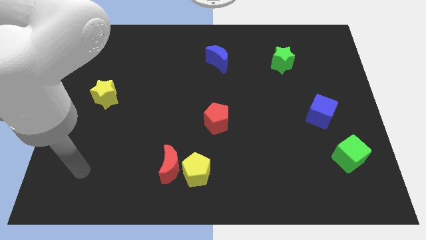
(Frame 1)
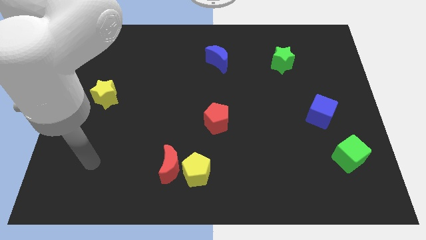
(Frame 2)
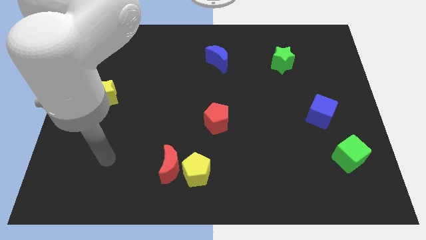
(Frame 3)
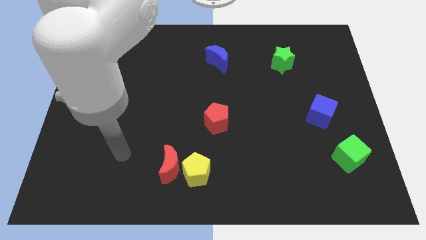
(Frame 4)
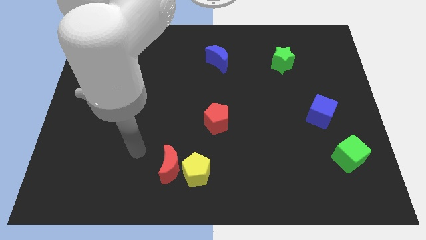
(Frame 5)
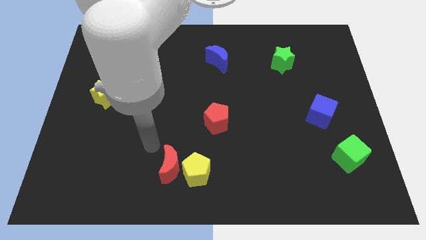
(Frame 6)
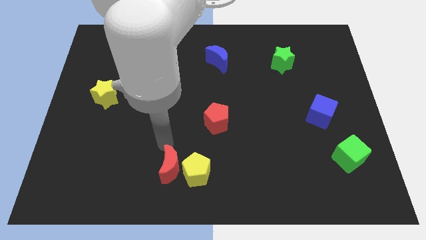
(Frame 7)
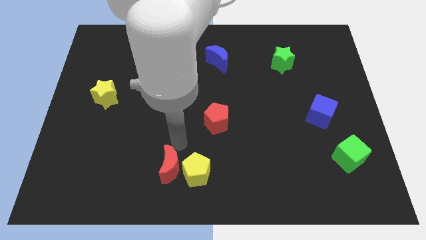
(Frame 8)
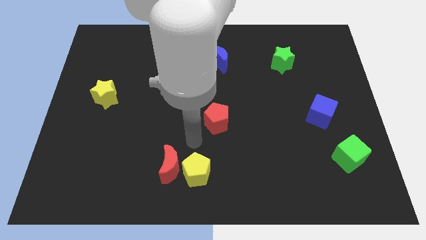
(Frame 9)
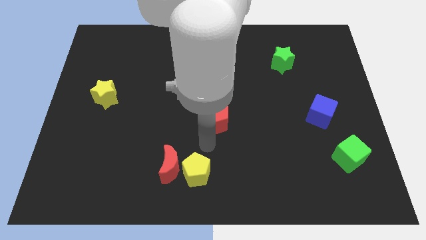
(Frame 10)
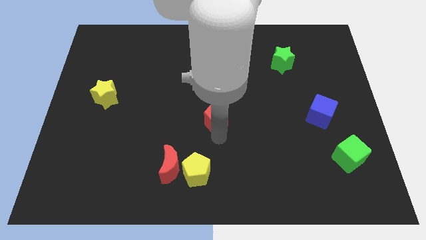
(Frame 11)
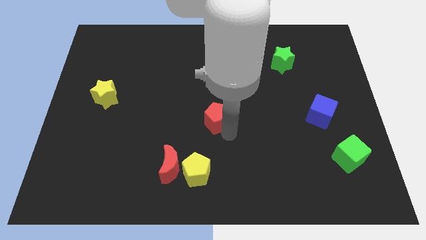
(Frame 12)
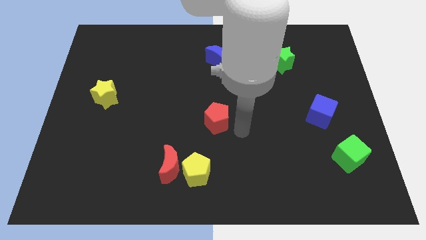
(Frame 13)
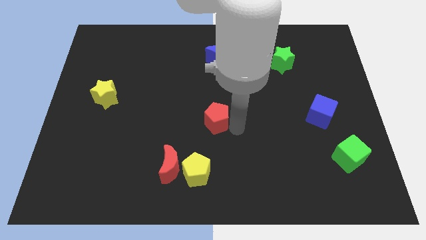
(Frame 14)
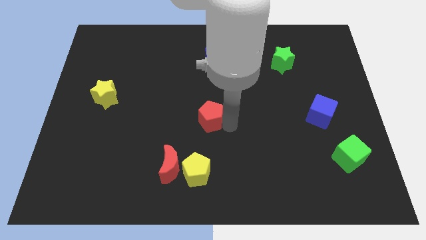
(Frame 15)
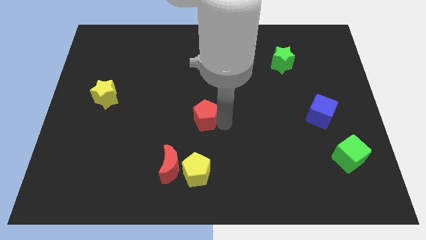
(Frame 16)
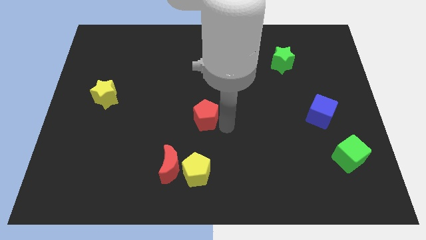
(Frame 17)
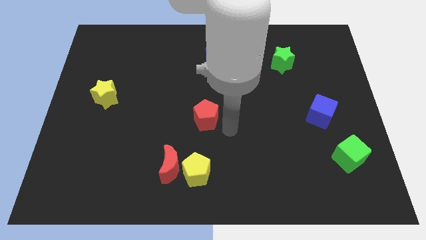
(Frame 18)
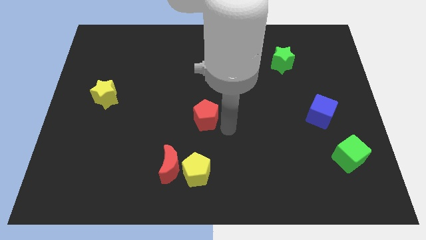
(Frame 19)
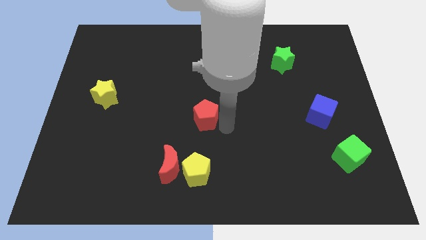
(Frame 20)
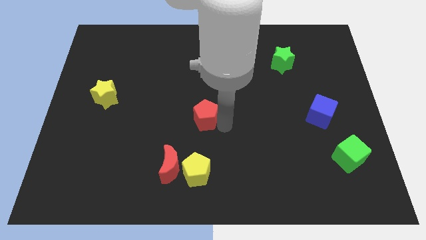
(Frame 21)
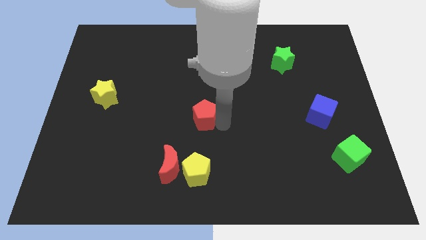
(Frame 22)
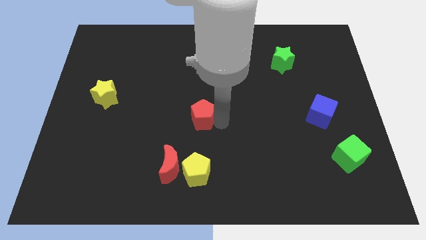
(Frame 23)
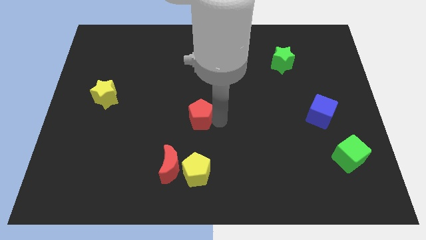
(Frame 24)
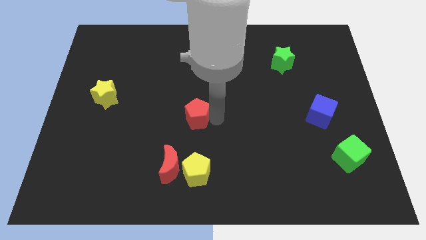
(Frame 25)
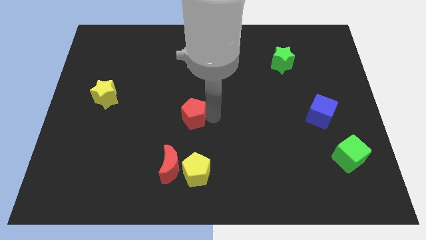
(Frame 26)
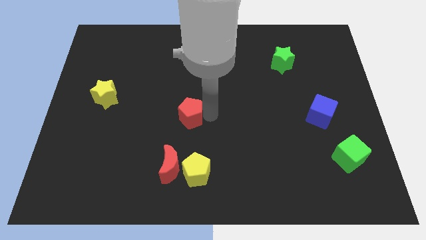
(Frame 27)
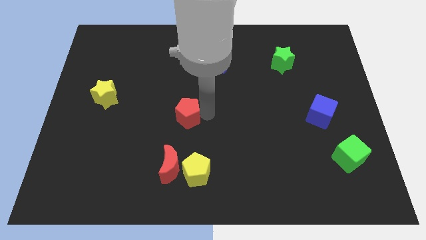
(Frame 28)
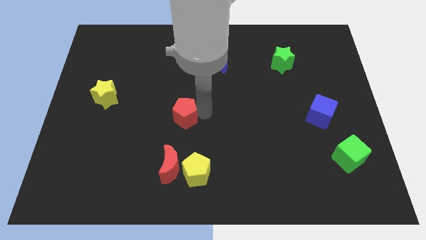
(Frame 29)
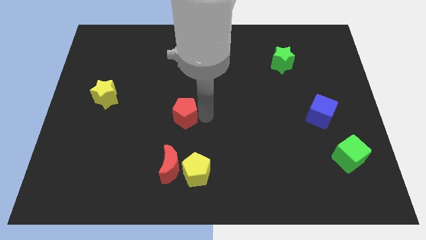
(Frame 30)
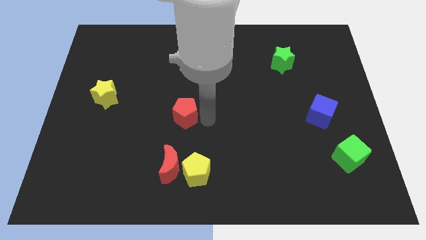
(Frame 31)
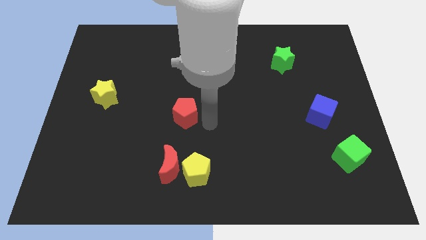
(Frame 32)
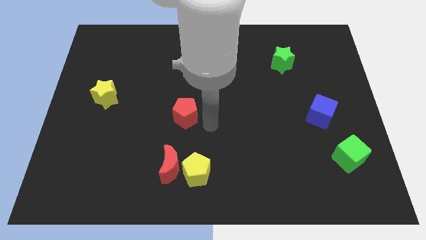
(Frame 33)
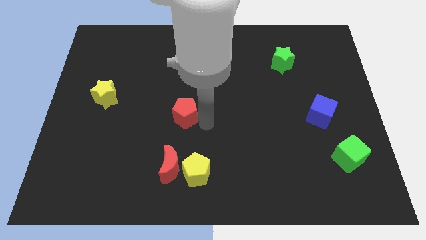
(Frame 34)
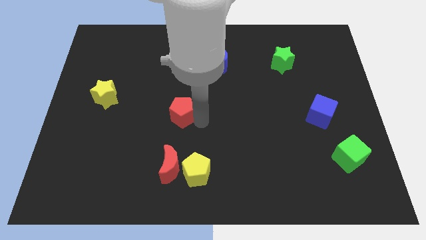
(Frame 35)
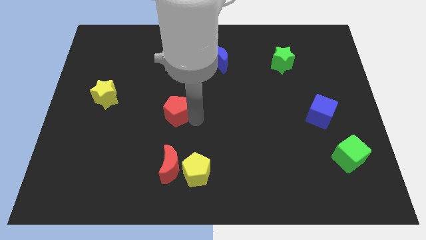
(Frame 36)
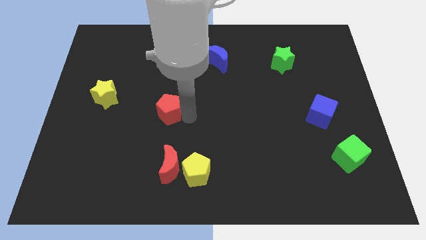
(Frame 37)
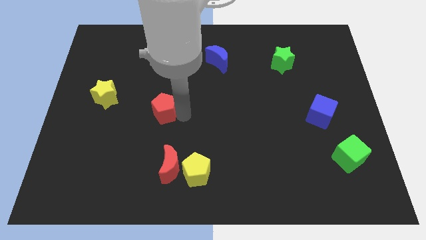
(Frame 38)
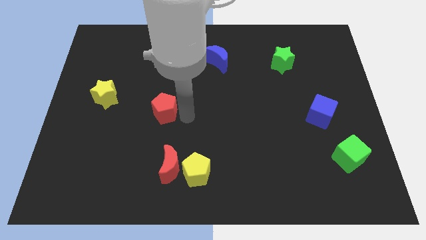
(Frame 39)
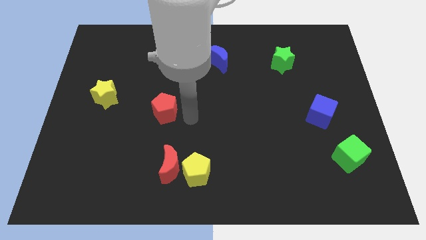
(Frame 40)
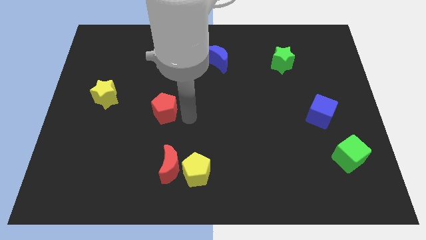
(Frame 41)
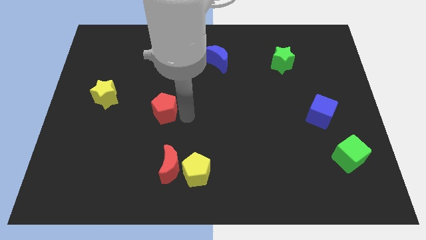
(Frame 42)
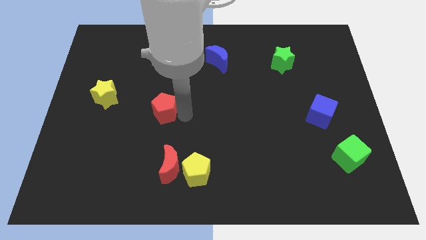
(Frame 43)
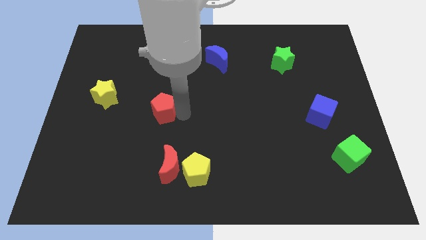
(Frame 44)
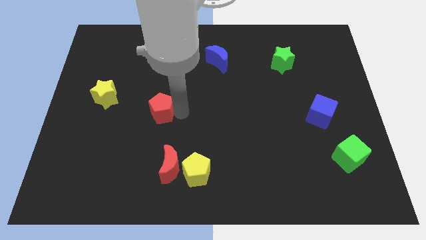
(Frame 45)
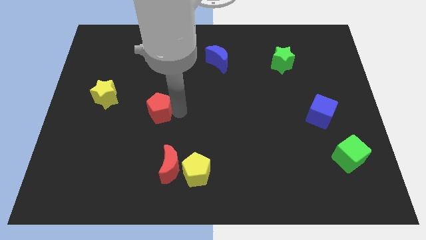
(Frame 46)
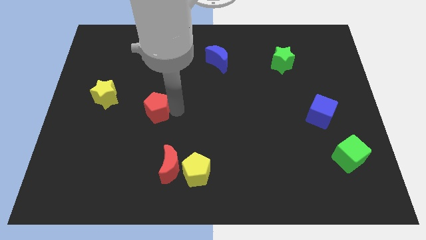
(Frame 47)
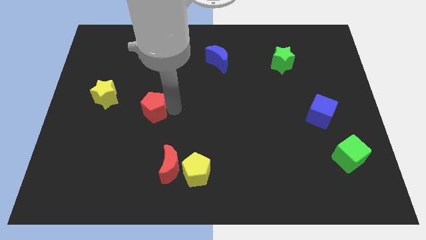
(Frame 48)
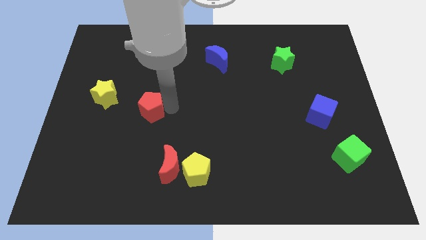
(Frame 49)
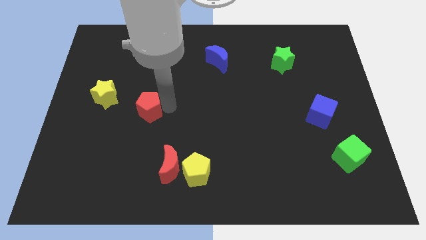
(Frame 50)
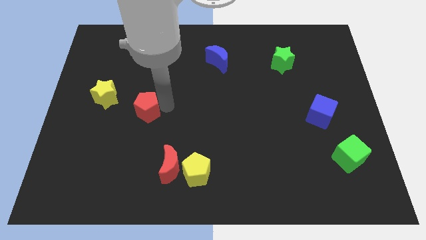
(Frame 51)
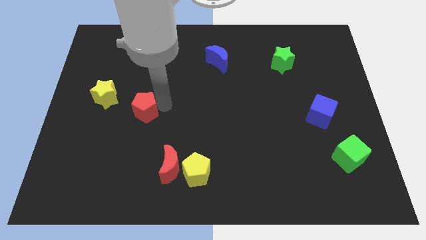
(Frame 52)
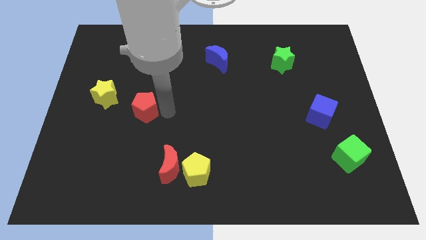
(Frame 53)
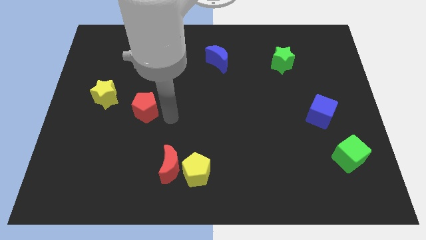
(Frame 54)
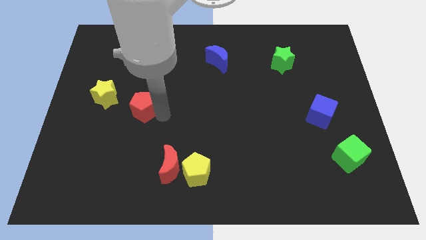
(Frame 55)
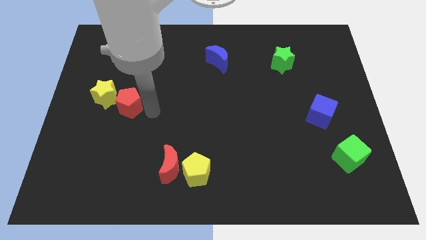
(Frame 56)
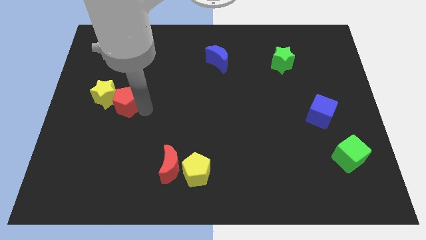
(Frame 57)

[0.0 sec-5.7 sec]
slide the red pentagon close to the yellow star

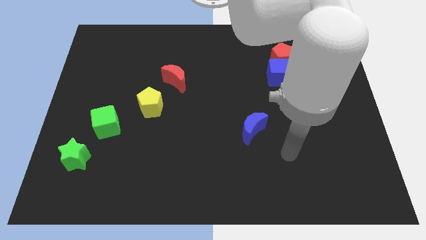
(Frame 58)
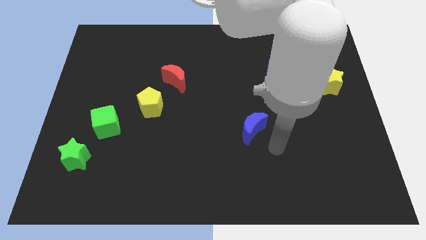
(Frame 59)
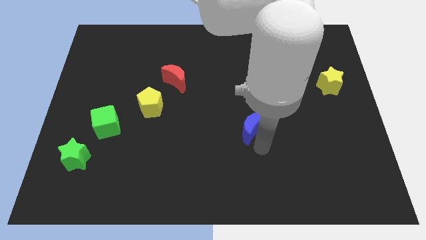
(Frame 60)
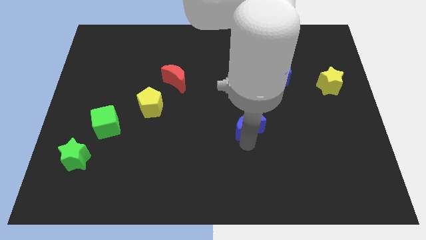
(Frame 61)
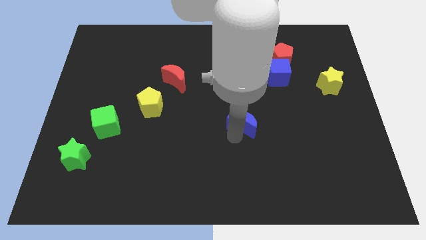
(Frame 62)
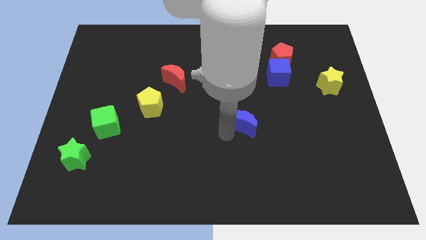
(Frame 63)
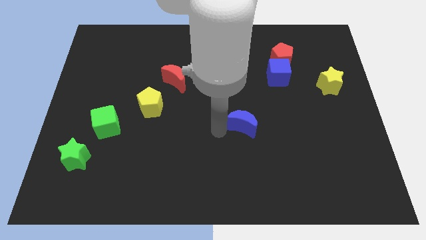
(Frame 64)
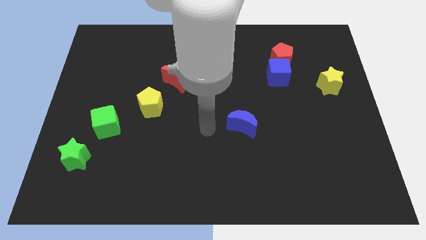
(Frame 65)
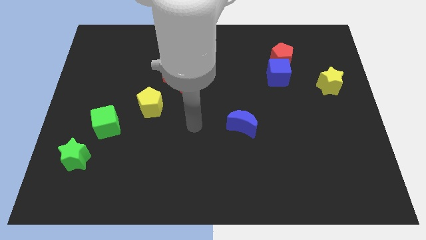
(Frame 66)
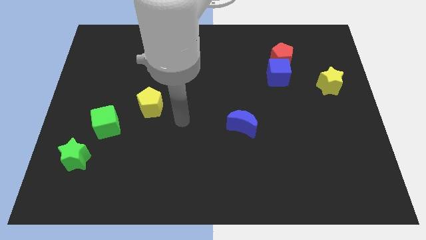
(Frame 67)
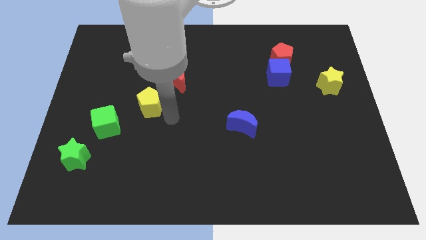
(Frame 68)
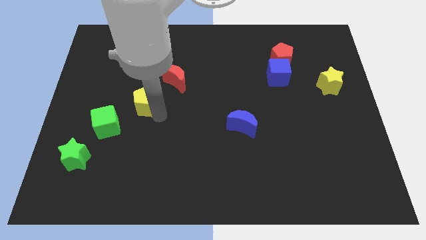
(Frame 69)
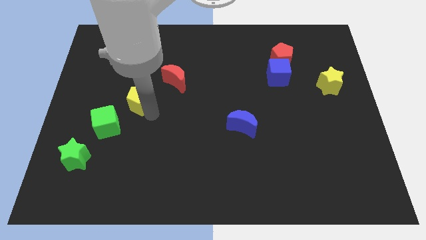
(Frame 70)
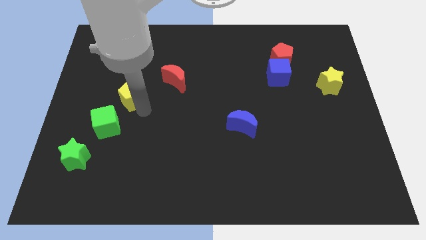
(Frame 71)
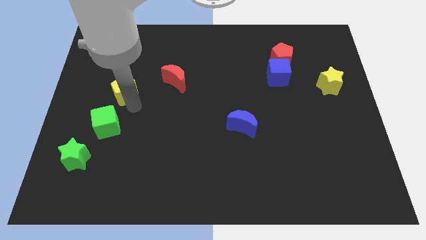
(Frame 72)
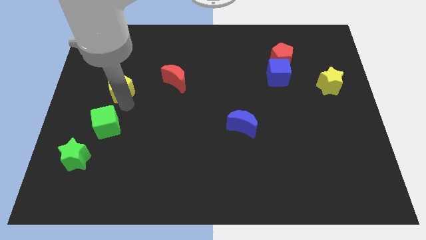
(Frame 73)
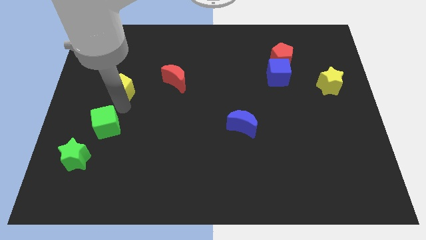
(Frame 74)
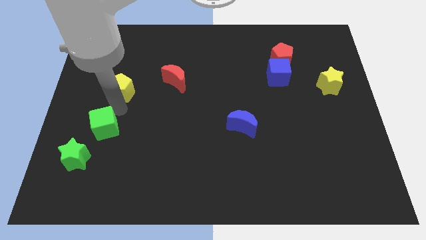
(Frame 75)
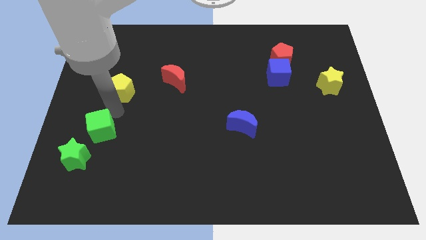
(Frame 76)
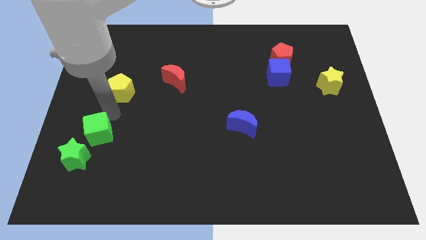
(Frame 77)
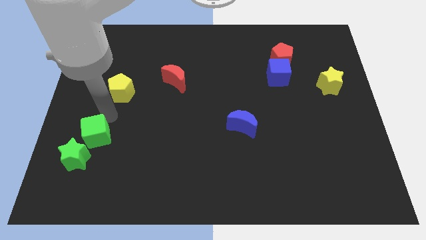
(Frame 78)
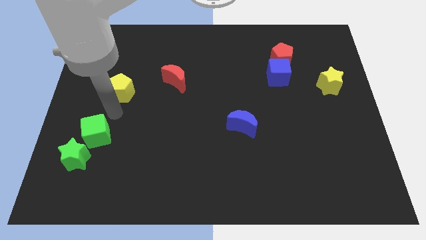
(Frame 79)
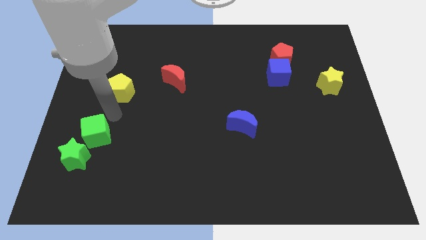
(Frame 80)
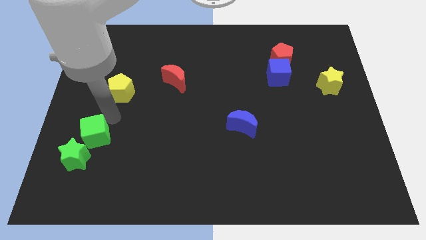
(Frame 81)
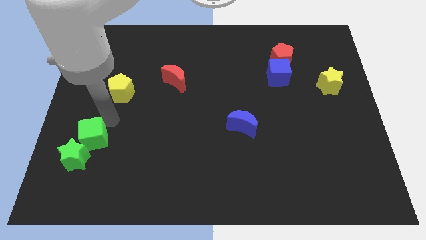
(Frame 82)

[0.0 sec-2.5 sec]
push the green cube to the green star
